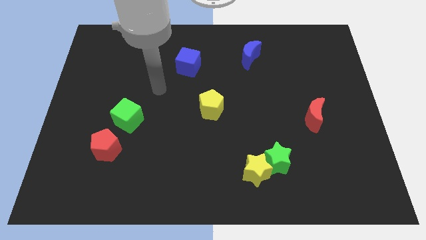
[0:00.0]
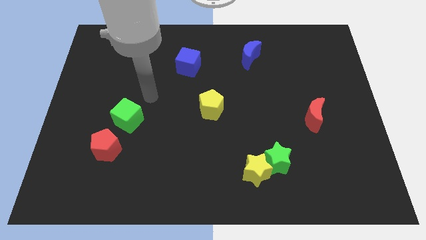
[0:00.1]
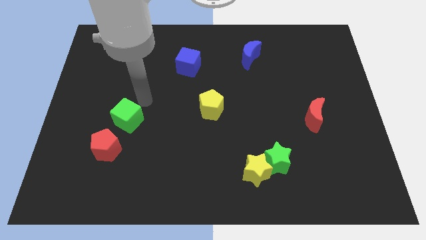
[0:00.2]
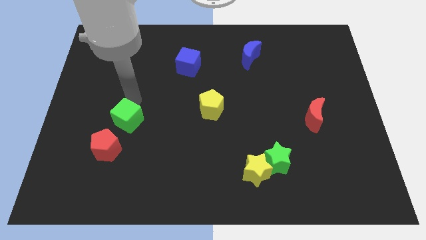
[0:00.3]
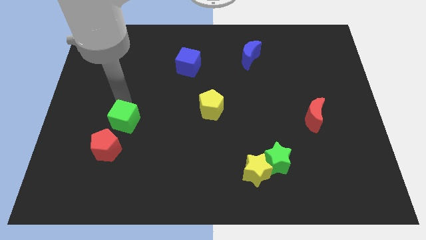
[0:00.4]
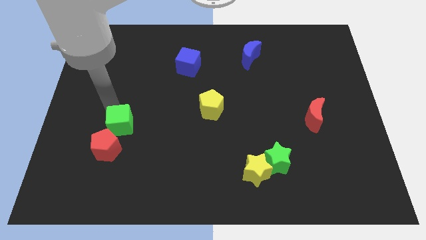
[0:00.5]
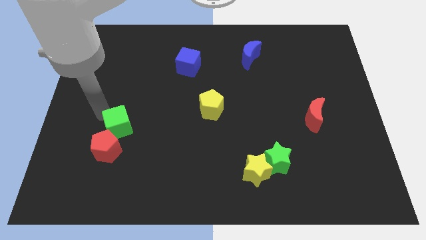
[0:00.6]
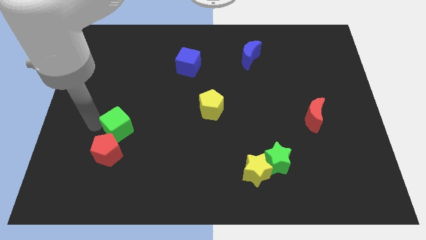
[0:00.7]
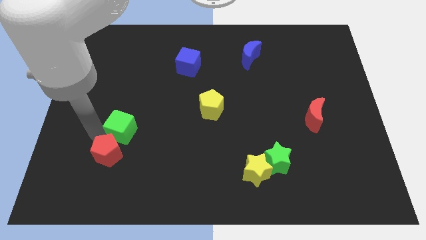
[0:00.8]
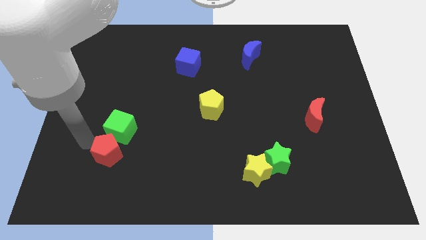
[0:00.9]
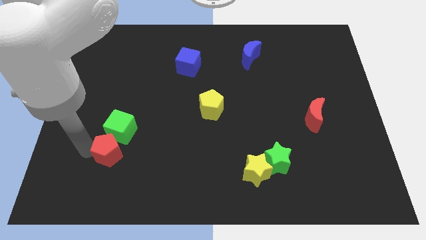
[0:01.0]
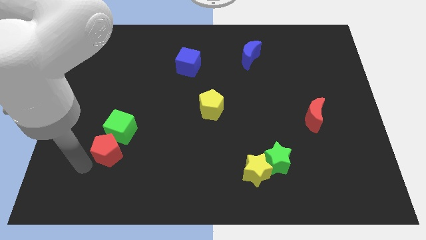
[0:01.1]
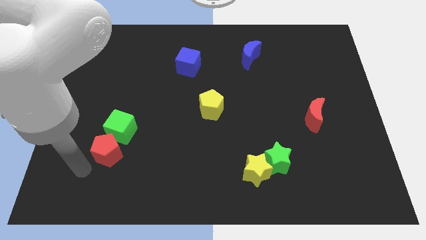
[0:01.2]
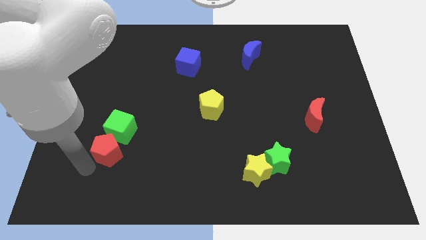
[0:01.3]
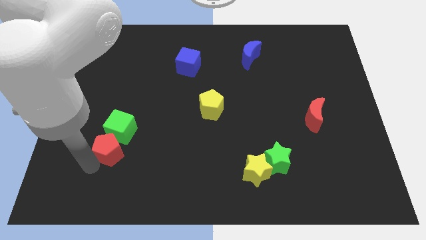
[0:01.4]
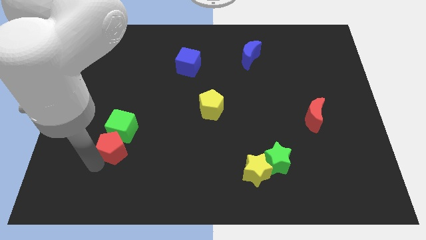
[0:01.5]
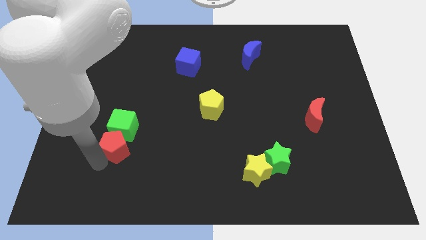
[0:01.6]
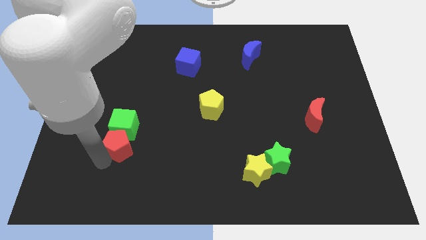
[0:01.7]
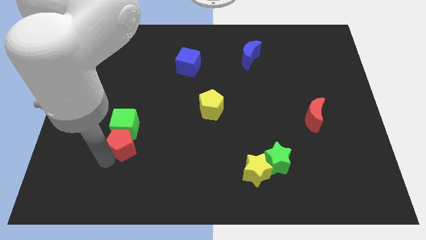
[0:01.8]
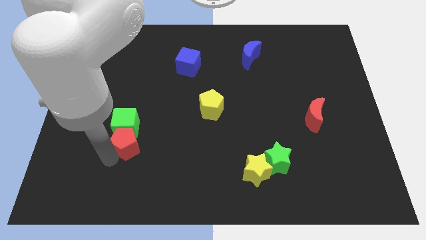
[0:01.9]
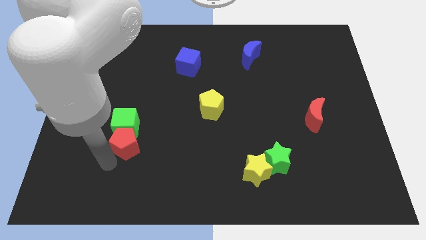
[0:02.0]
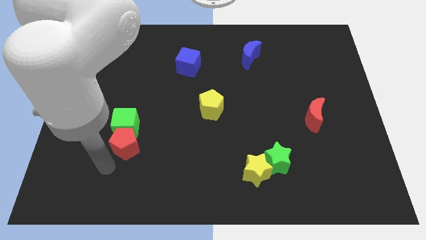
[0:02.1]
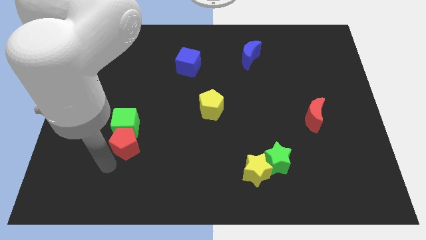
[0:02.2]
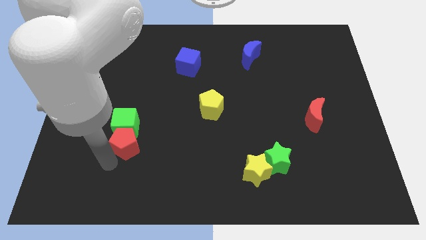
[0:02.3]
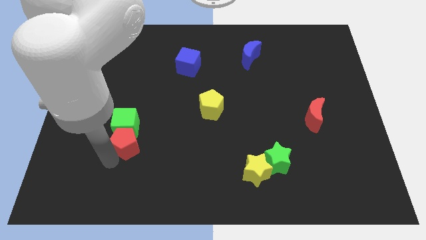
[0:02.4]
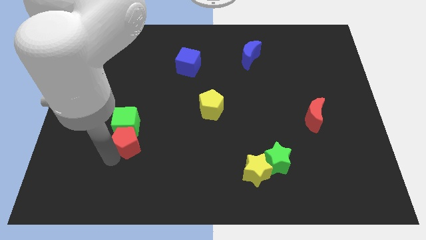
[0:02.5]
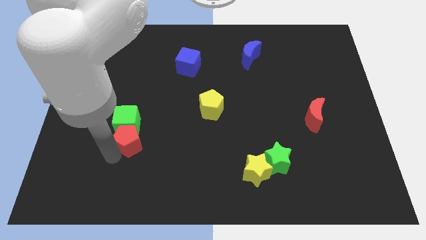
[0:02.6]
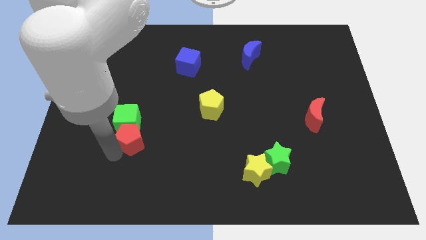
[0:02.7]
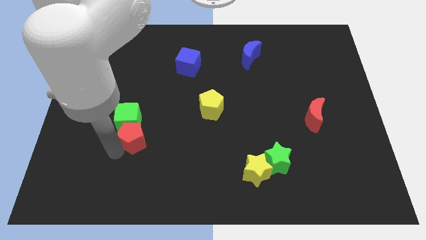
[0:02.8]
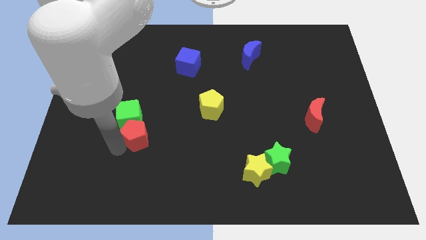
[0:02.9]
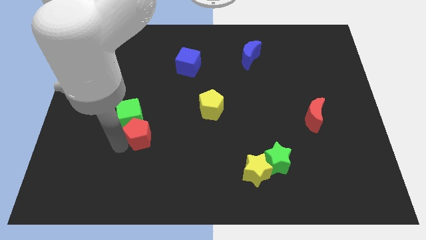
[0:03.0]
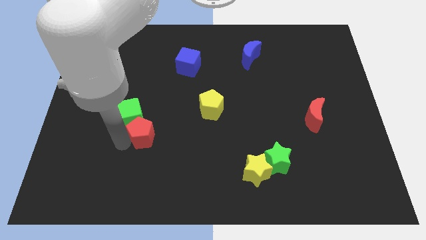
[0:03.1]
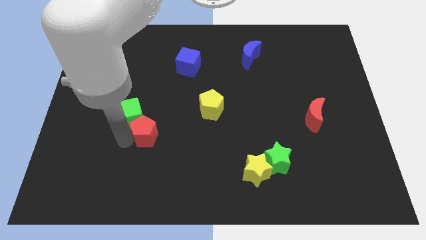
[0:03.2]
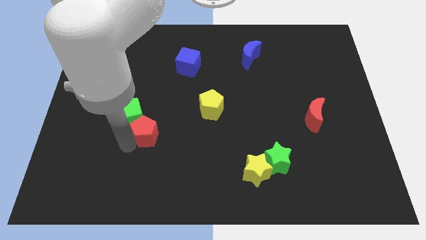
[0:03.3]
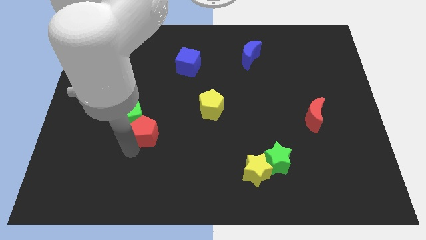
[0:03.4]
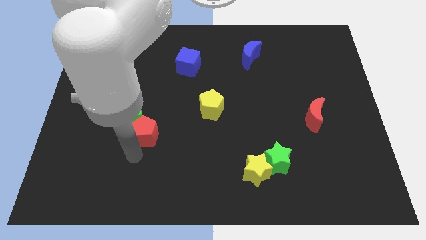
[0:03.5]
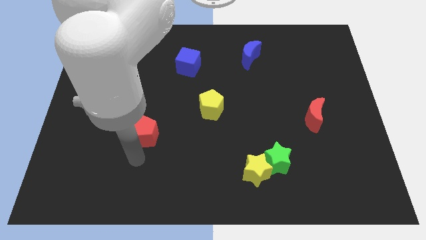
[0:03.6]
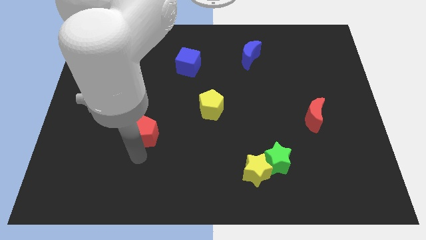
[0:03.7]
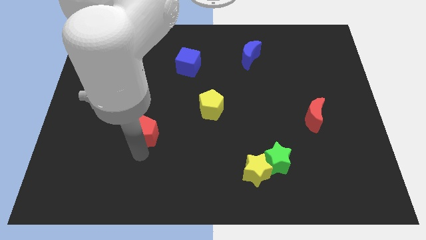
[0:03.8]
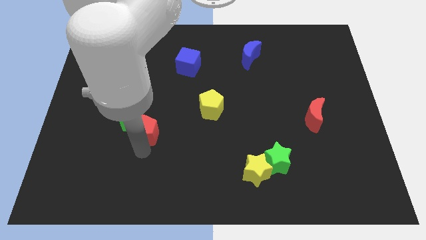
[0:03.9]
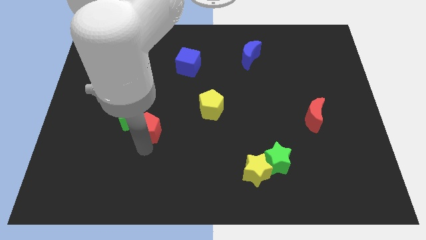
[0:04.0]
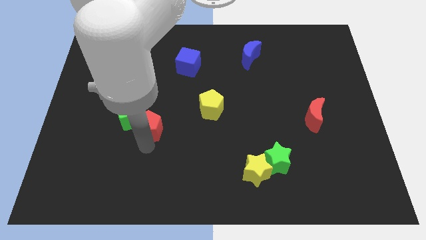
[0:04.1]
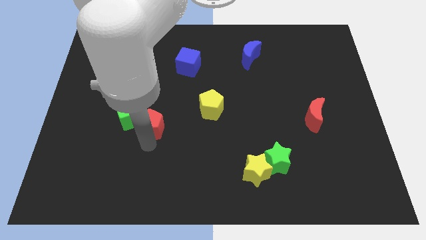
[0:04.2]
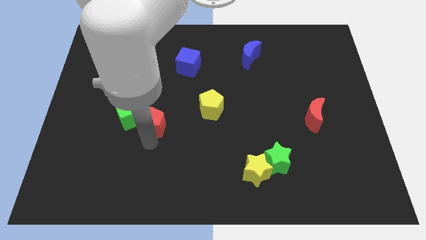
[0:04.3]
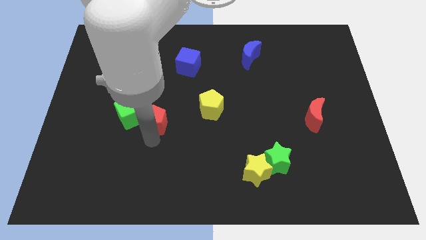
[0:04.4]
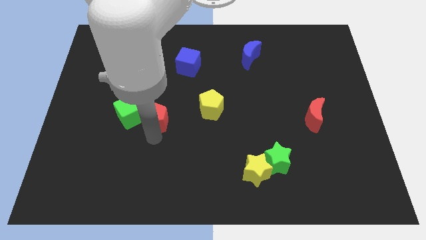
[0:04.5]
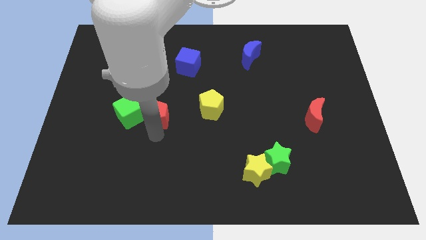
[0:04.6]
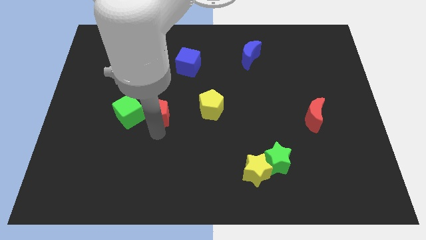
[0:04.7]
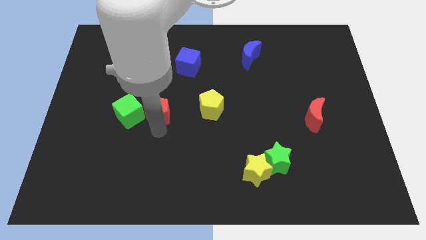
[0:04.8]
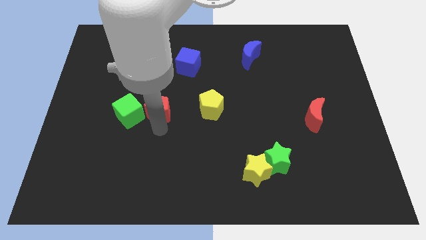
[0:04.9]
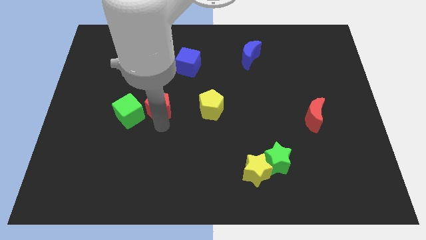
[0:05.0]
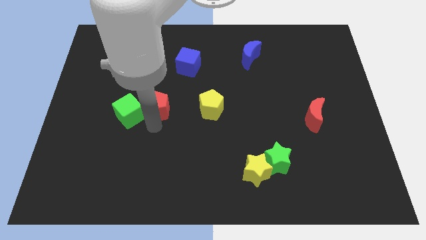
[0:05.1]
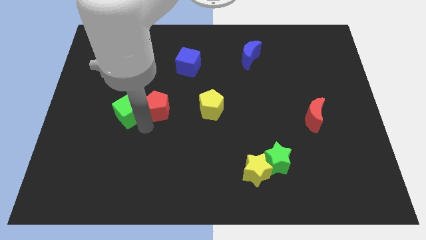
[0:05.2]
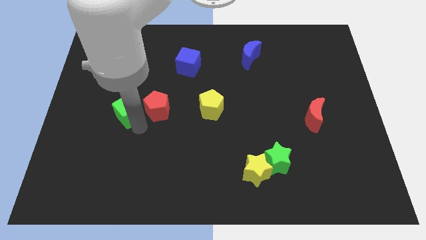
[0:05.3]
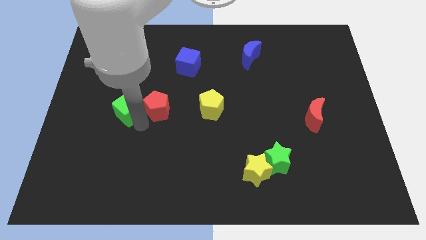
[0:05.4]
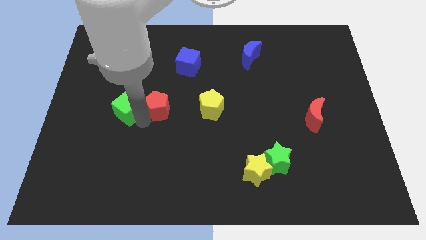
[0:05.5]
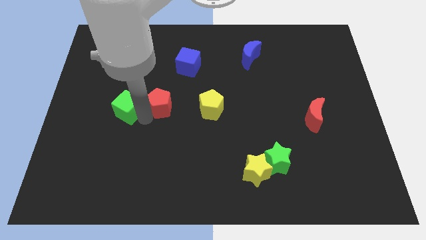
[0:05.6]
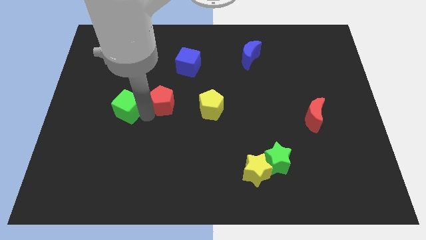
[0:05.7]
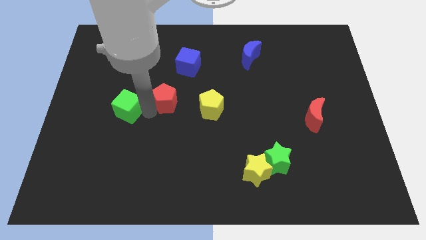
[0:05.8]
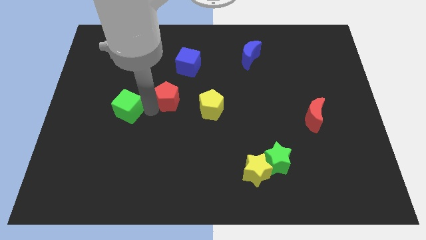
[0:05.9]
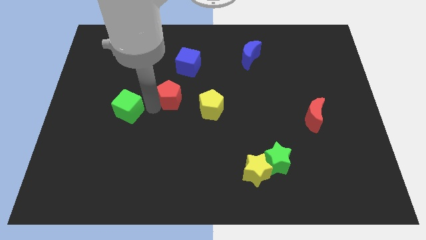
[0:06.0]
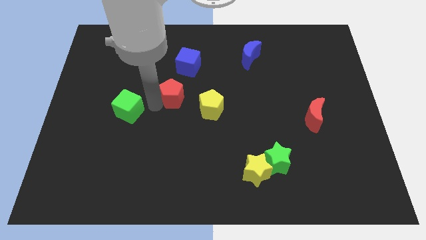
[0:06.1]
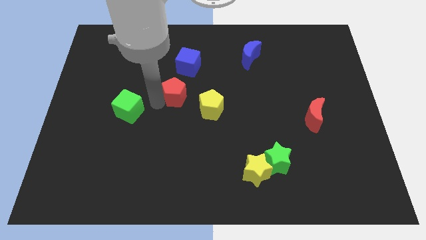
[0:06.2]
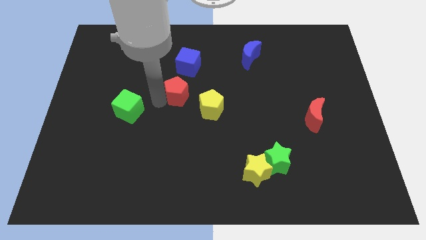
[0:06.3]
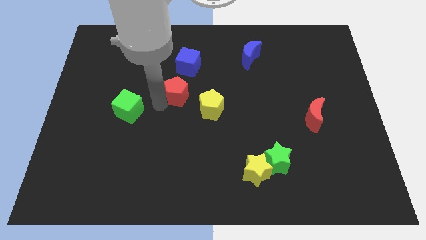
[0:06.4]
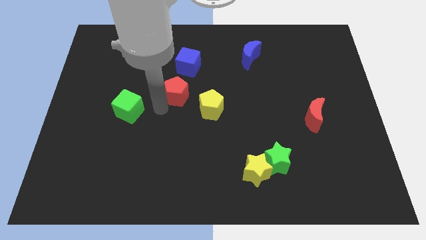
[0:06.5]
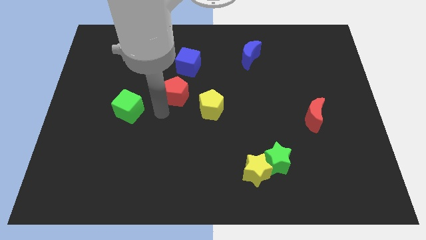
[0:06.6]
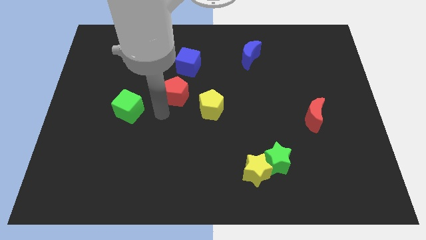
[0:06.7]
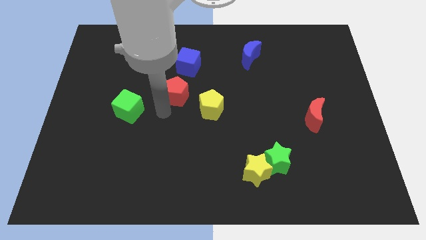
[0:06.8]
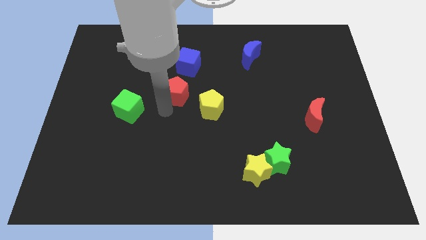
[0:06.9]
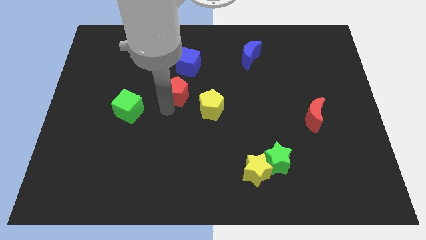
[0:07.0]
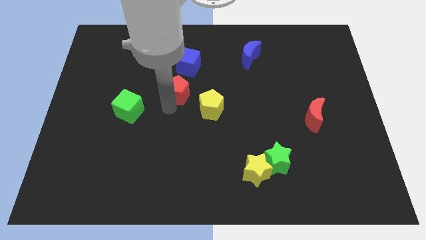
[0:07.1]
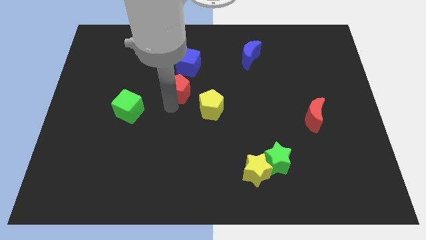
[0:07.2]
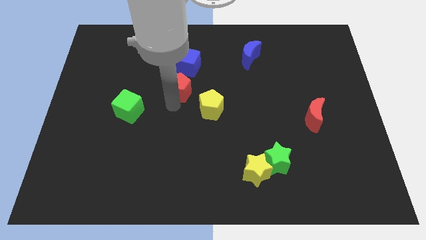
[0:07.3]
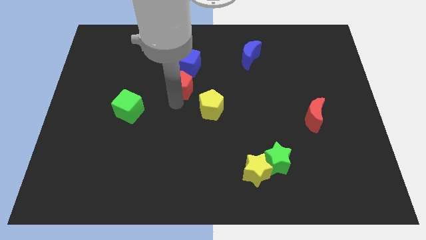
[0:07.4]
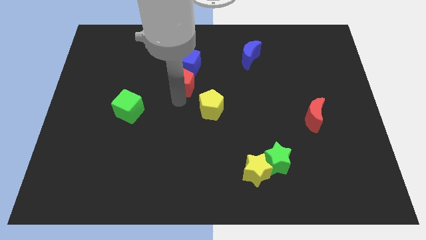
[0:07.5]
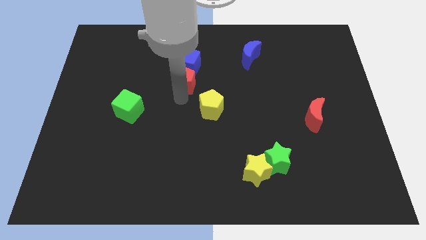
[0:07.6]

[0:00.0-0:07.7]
put the red pentagon close to the blue cube

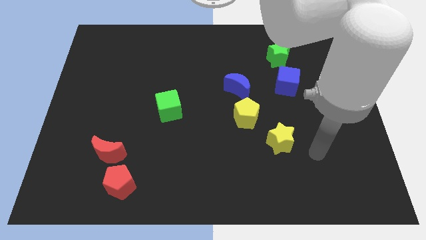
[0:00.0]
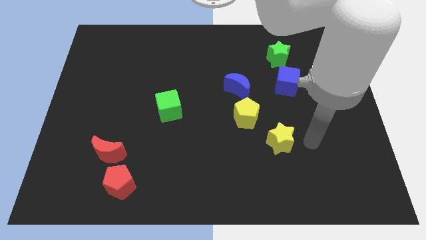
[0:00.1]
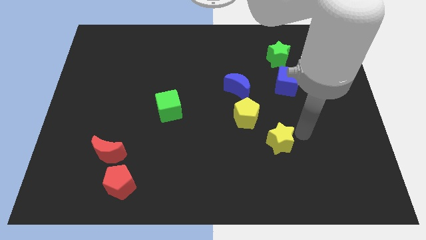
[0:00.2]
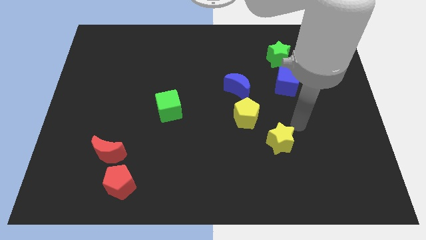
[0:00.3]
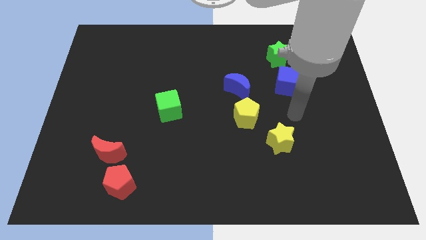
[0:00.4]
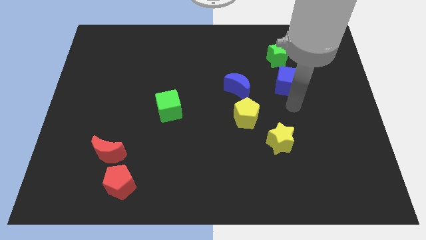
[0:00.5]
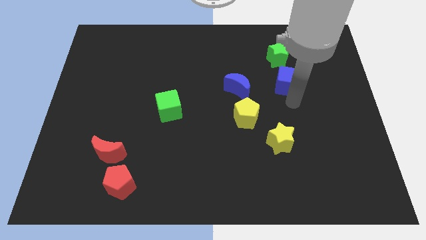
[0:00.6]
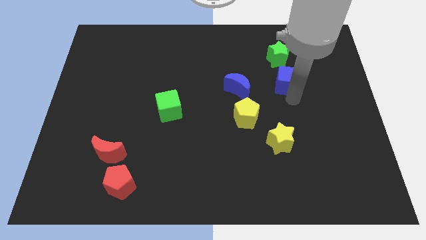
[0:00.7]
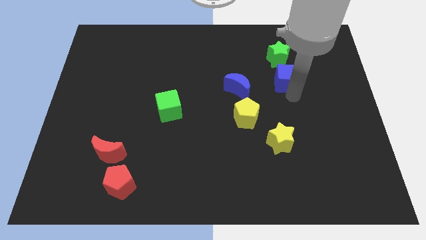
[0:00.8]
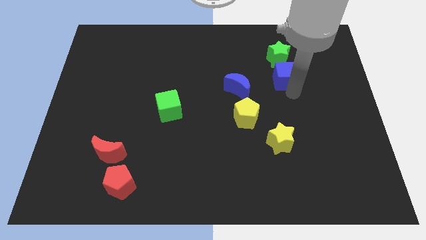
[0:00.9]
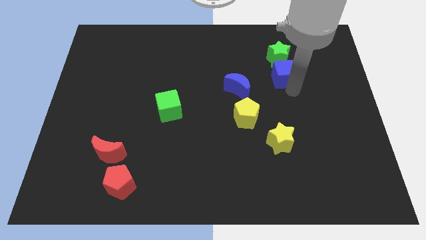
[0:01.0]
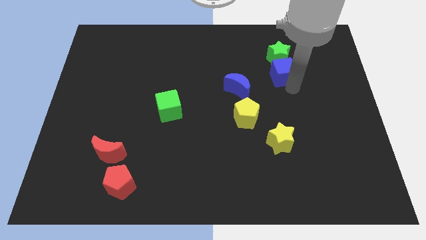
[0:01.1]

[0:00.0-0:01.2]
put the blue cube towards the green star
